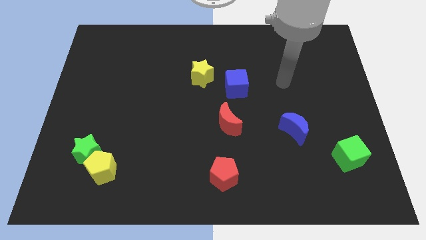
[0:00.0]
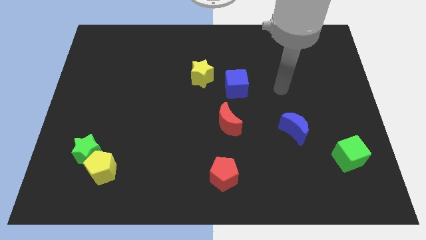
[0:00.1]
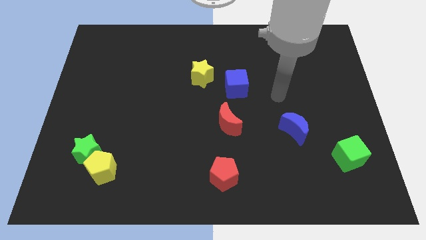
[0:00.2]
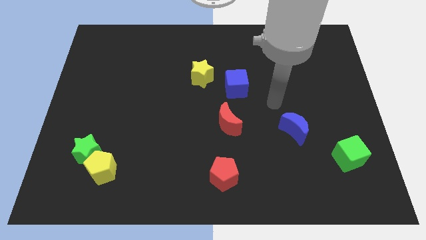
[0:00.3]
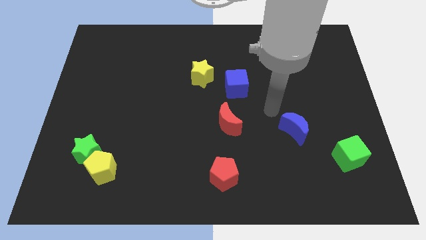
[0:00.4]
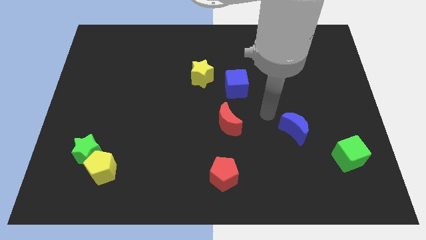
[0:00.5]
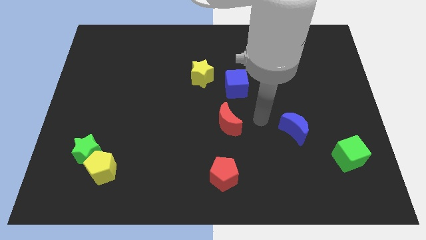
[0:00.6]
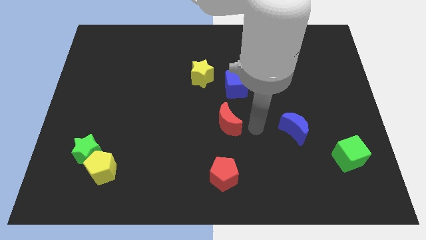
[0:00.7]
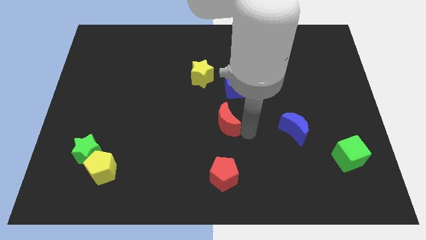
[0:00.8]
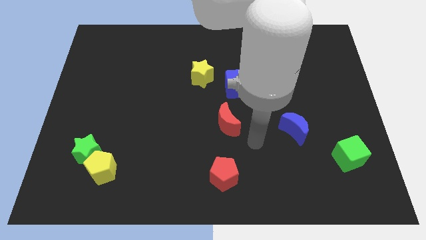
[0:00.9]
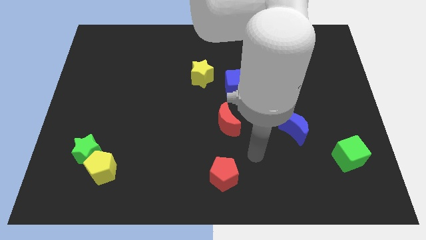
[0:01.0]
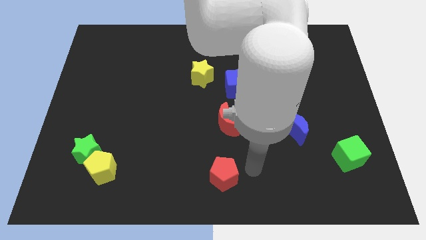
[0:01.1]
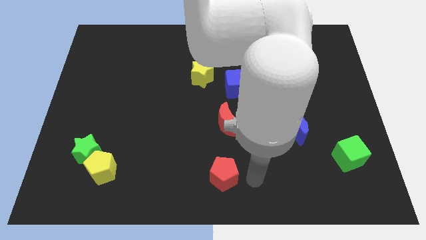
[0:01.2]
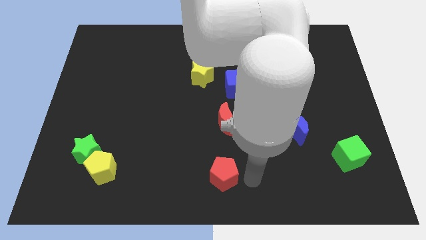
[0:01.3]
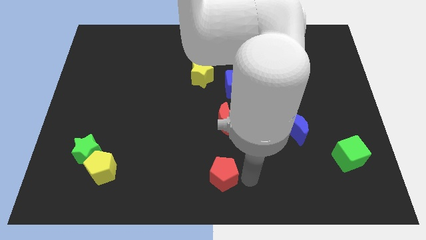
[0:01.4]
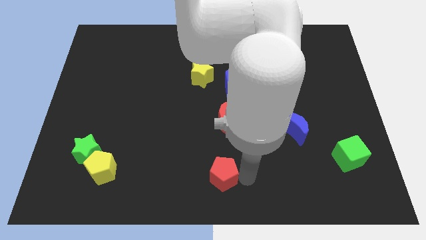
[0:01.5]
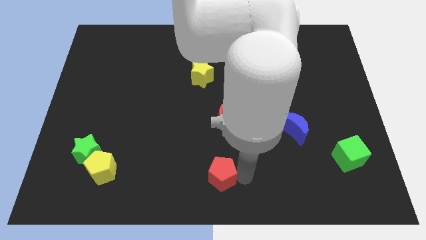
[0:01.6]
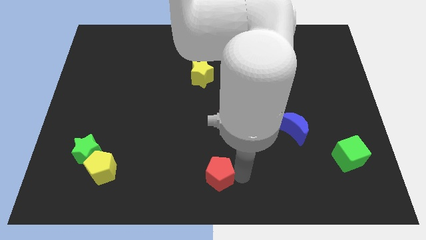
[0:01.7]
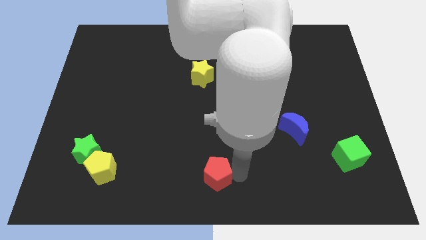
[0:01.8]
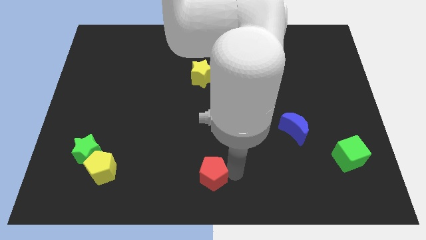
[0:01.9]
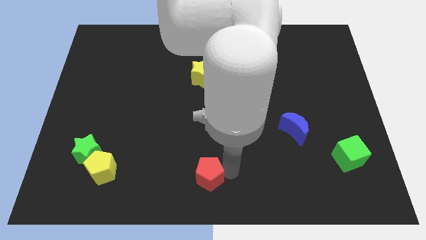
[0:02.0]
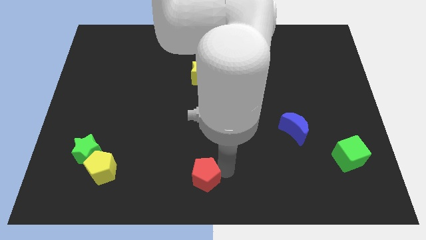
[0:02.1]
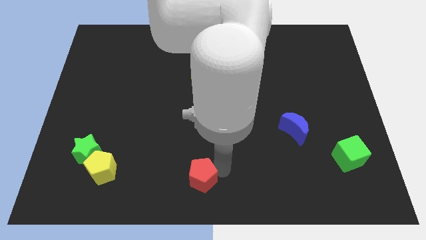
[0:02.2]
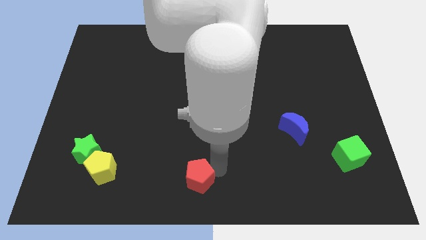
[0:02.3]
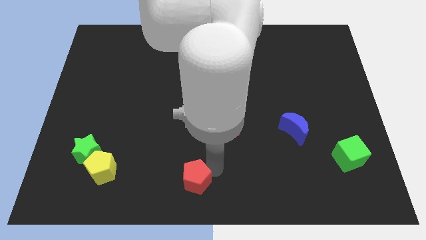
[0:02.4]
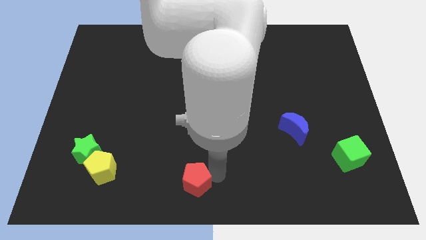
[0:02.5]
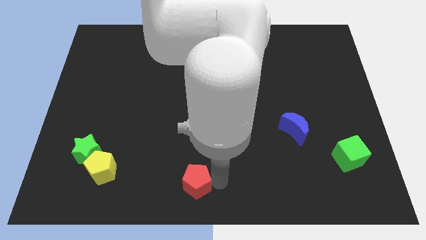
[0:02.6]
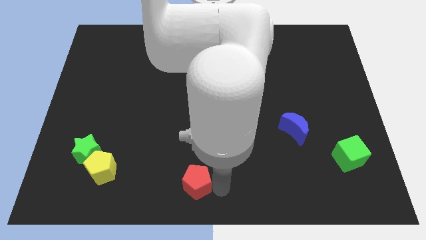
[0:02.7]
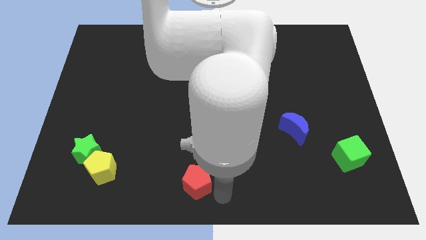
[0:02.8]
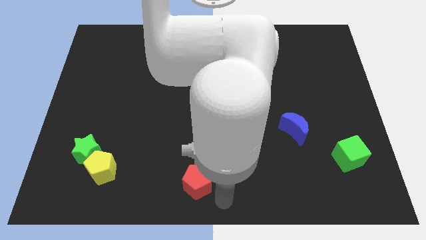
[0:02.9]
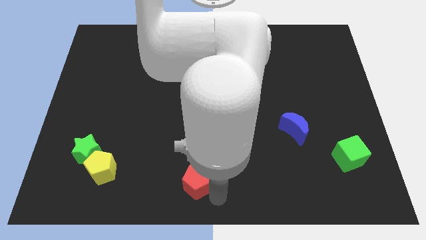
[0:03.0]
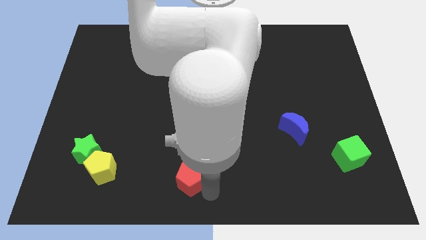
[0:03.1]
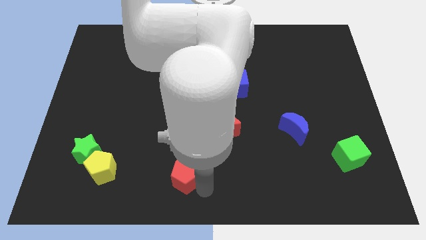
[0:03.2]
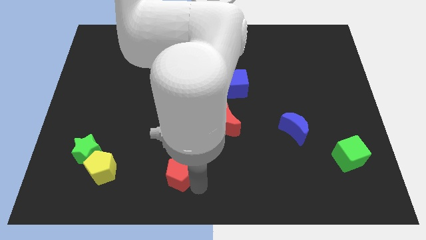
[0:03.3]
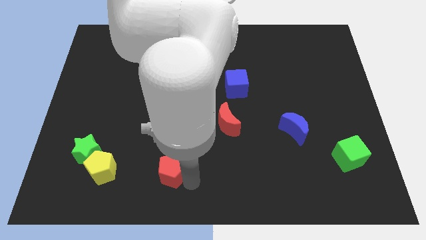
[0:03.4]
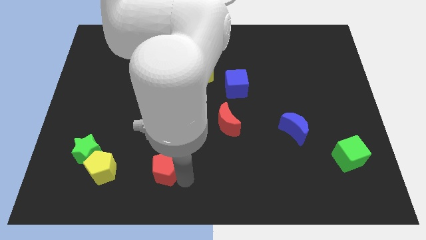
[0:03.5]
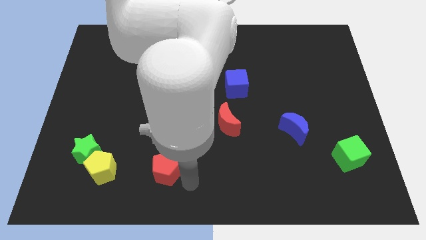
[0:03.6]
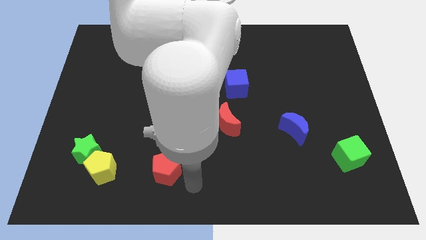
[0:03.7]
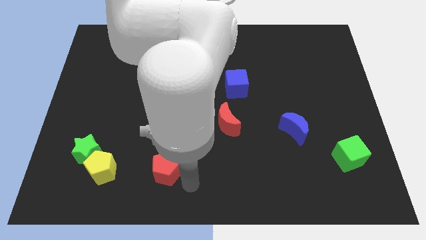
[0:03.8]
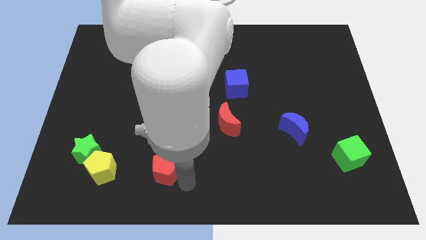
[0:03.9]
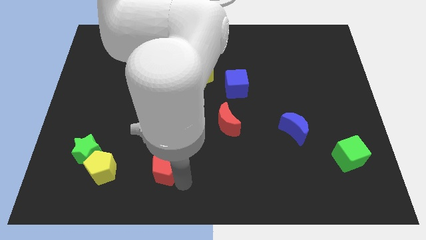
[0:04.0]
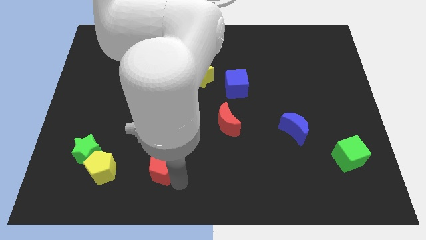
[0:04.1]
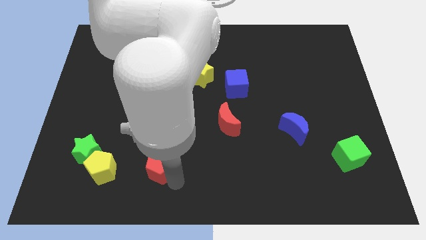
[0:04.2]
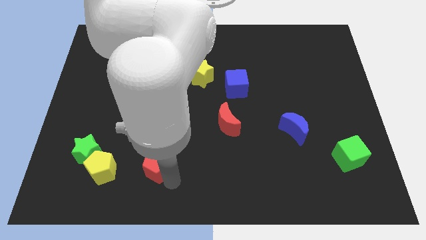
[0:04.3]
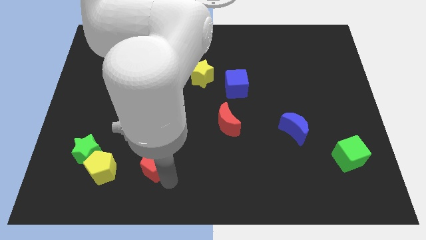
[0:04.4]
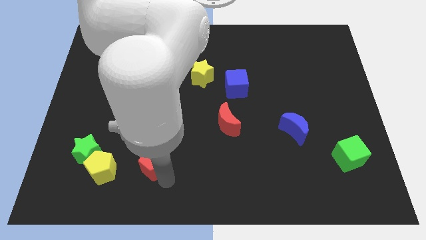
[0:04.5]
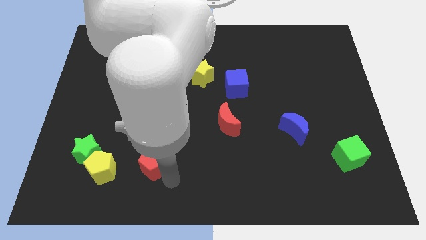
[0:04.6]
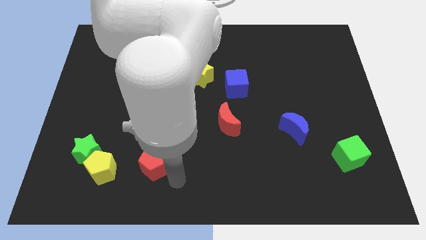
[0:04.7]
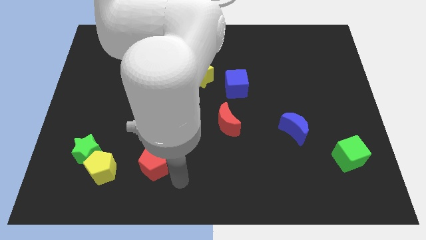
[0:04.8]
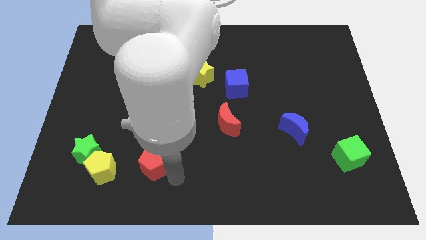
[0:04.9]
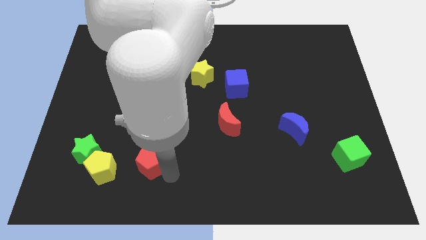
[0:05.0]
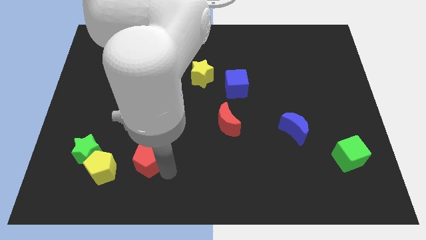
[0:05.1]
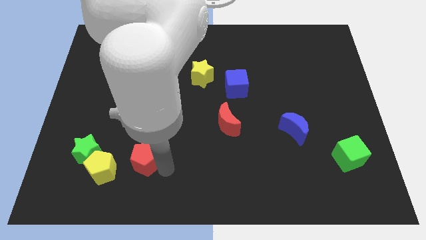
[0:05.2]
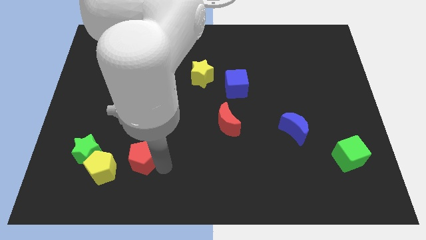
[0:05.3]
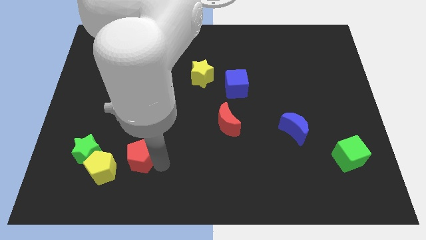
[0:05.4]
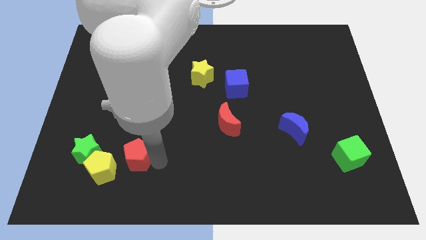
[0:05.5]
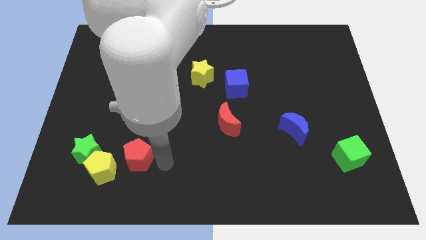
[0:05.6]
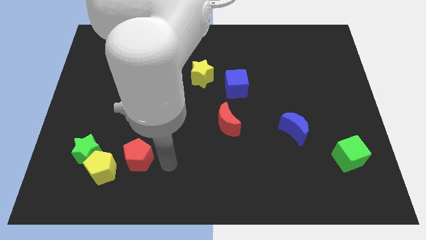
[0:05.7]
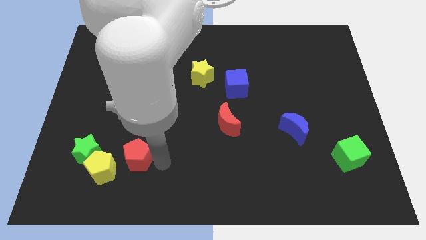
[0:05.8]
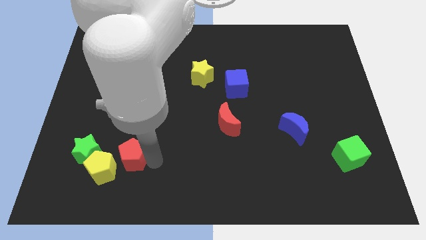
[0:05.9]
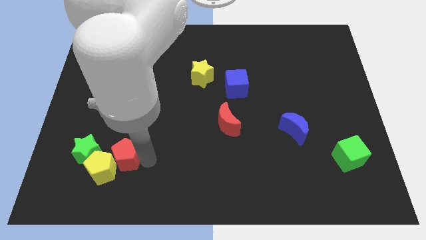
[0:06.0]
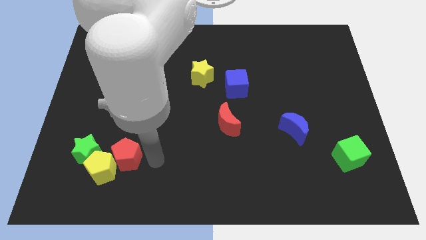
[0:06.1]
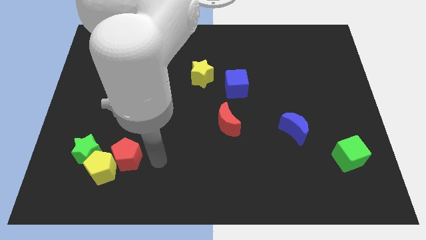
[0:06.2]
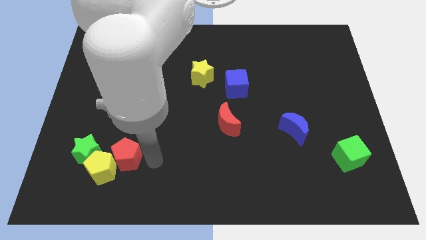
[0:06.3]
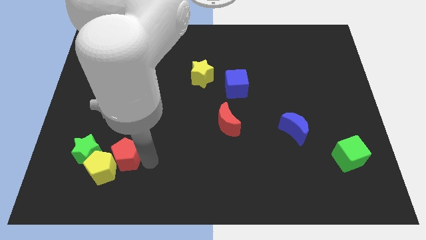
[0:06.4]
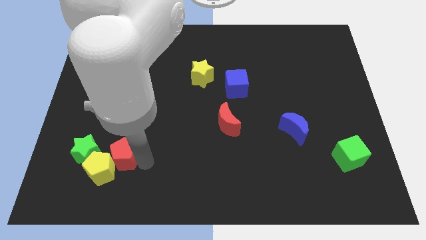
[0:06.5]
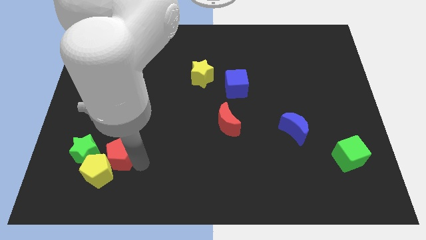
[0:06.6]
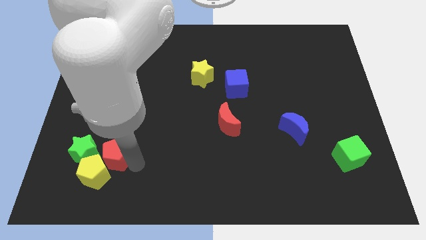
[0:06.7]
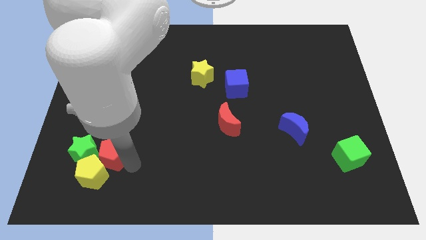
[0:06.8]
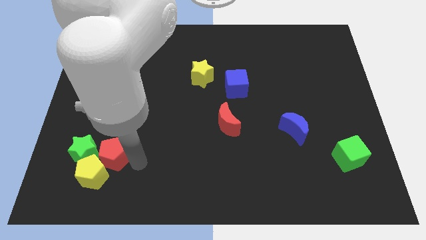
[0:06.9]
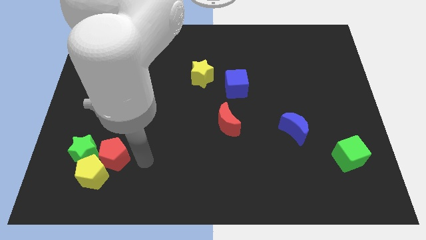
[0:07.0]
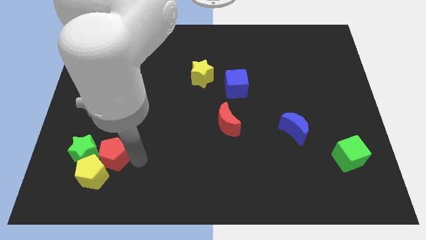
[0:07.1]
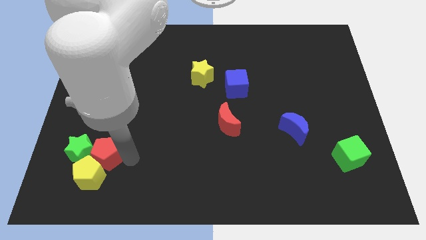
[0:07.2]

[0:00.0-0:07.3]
slide the red pentagon next to the green star
